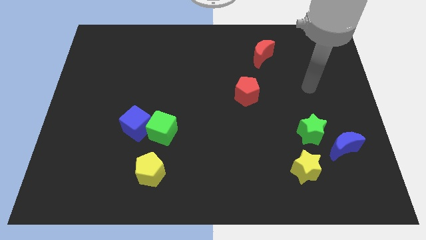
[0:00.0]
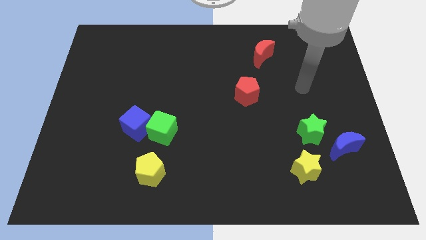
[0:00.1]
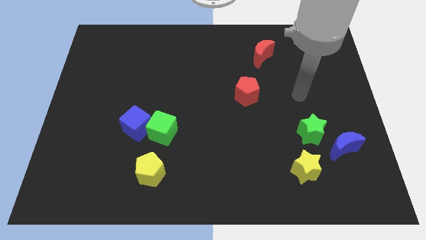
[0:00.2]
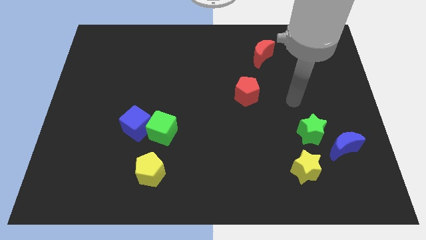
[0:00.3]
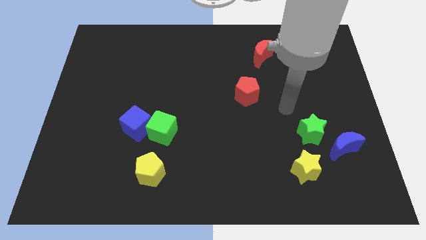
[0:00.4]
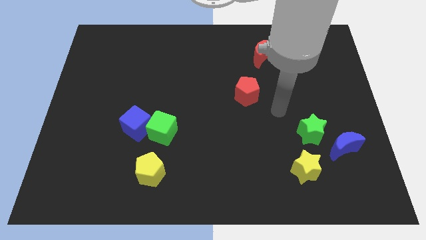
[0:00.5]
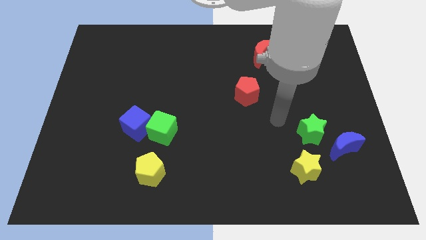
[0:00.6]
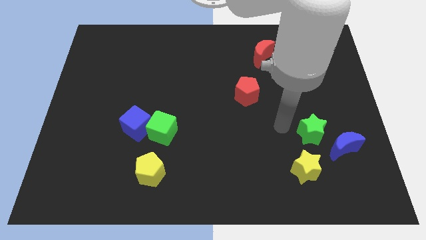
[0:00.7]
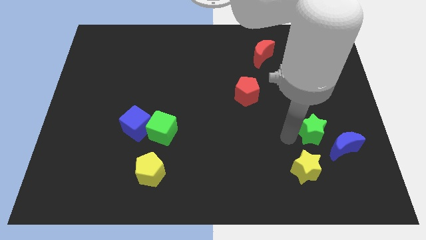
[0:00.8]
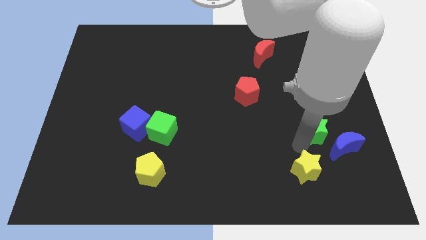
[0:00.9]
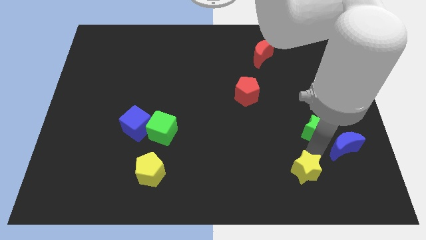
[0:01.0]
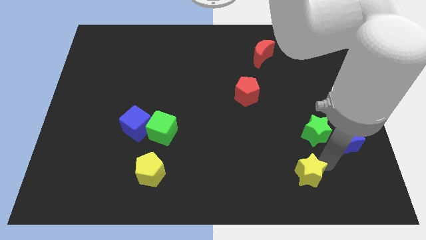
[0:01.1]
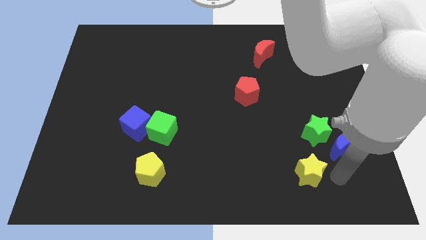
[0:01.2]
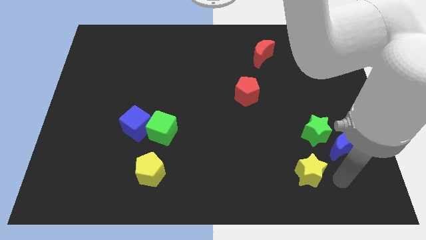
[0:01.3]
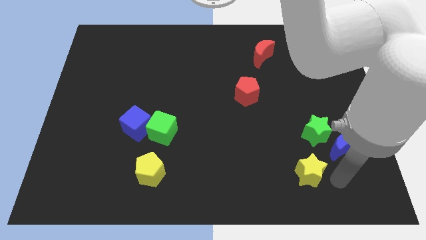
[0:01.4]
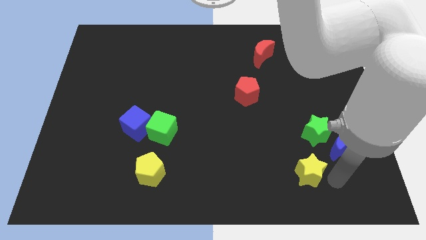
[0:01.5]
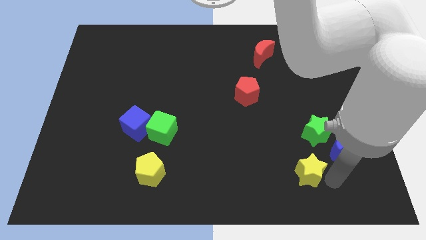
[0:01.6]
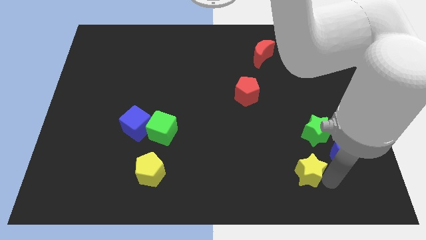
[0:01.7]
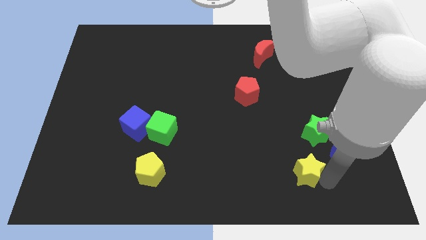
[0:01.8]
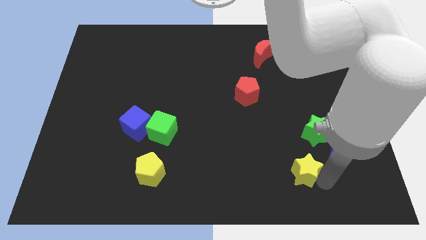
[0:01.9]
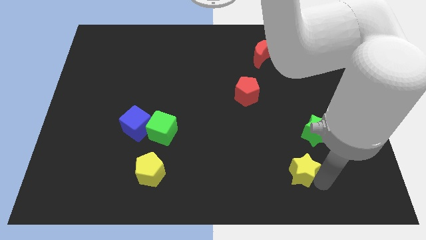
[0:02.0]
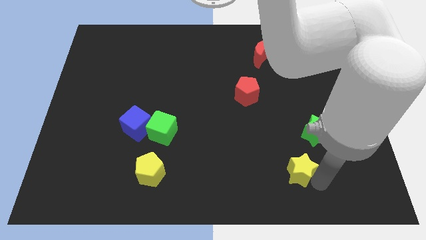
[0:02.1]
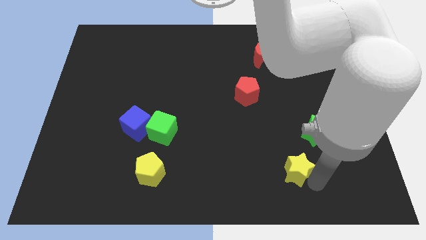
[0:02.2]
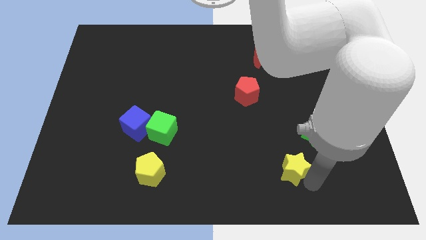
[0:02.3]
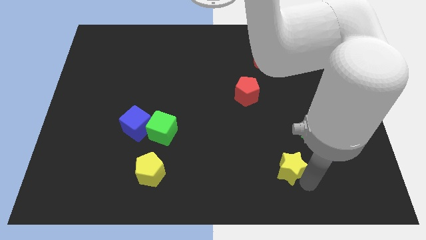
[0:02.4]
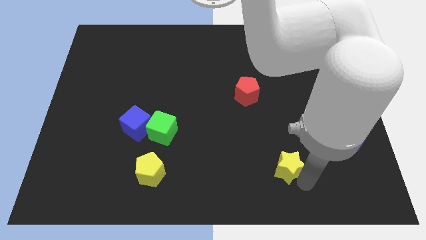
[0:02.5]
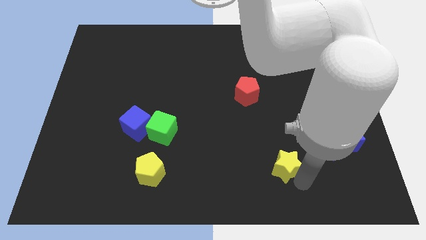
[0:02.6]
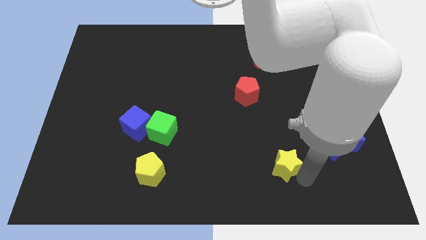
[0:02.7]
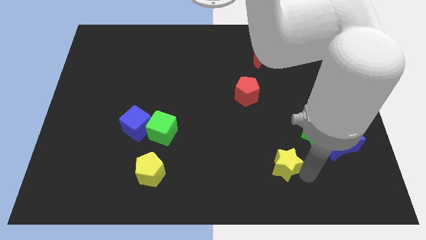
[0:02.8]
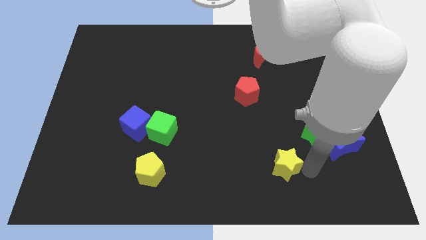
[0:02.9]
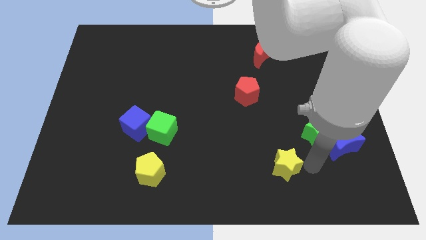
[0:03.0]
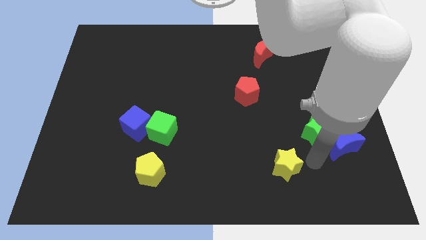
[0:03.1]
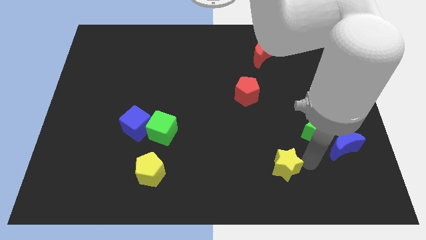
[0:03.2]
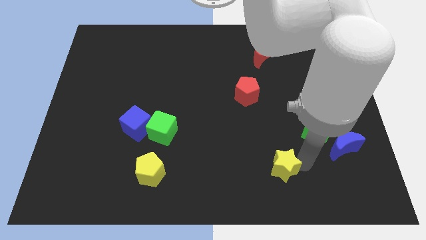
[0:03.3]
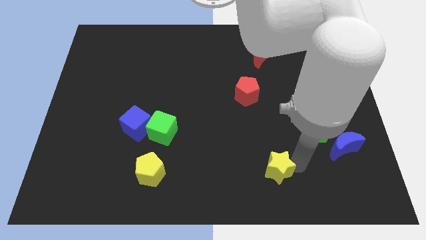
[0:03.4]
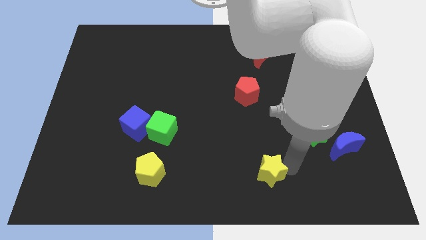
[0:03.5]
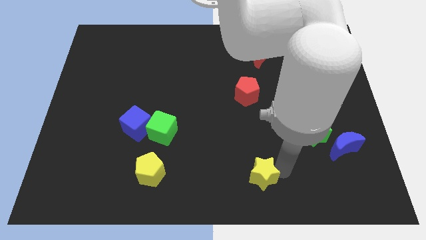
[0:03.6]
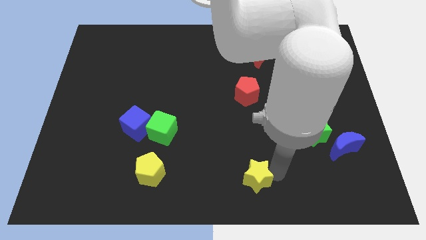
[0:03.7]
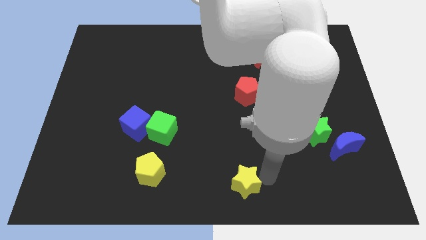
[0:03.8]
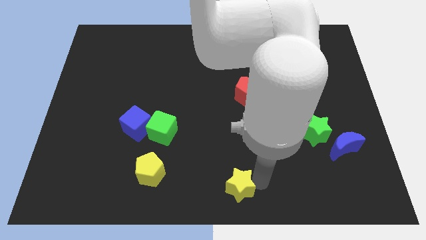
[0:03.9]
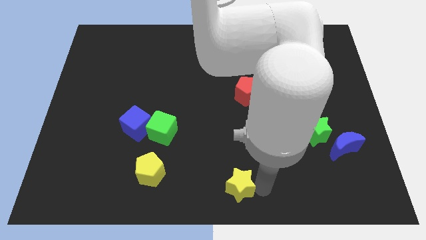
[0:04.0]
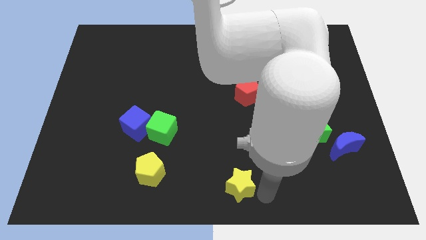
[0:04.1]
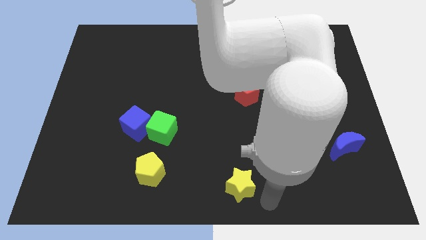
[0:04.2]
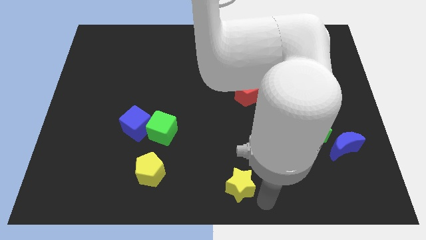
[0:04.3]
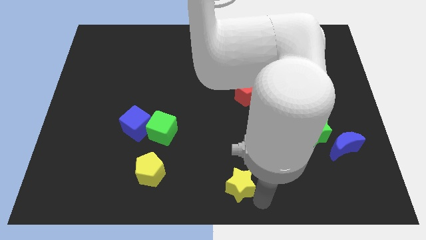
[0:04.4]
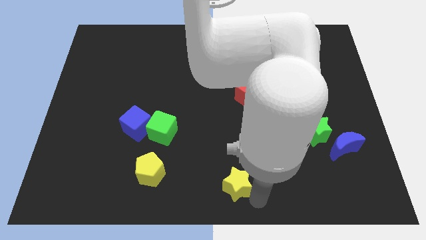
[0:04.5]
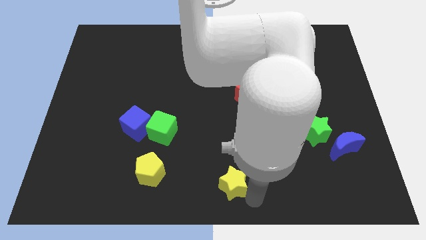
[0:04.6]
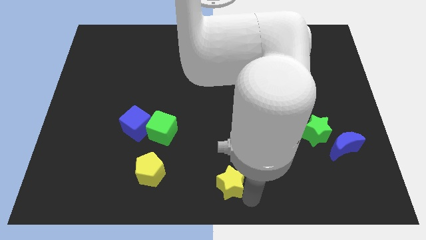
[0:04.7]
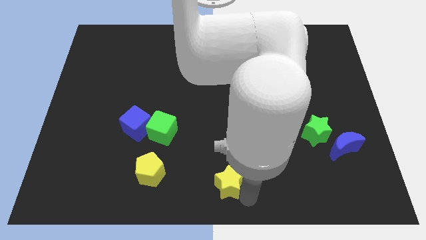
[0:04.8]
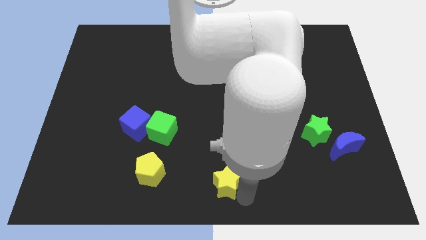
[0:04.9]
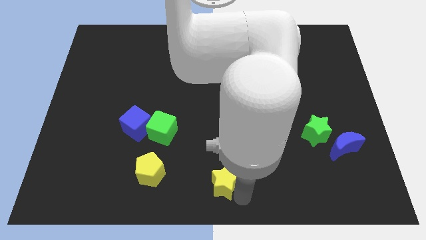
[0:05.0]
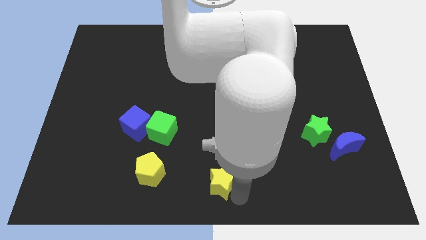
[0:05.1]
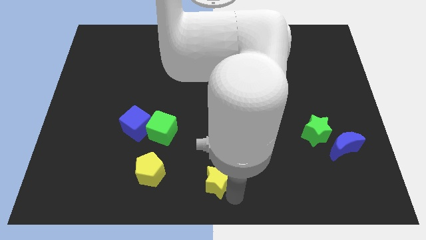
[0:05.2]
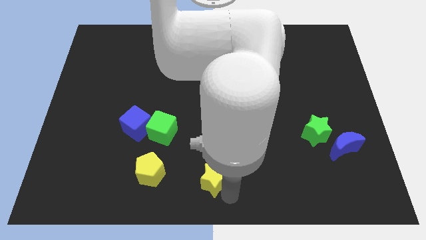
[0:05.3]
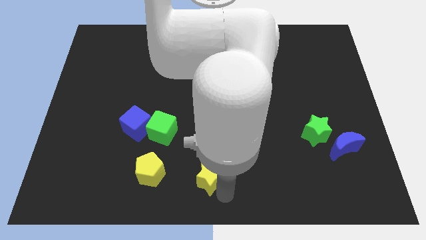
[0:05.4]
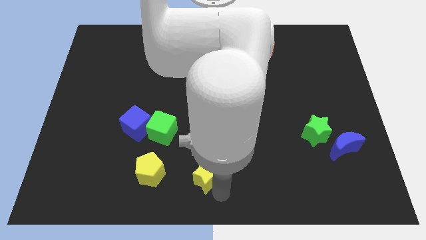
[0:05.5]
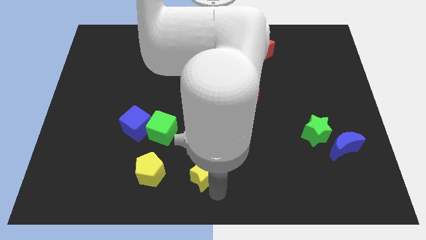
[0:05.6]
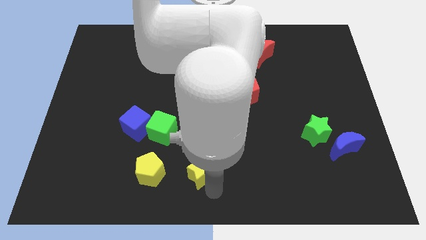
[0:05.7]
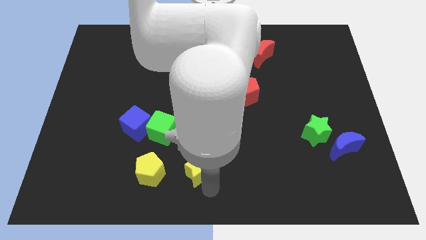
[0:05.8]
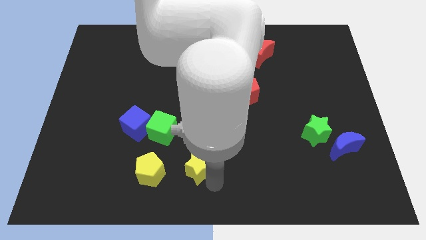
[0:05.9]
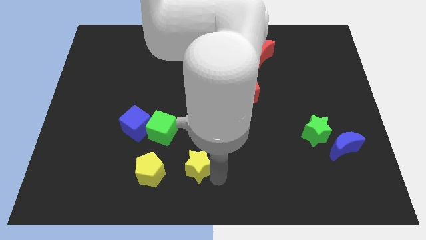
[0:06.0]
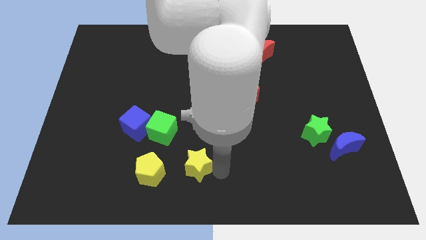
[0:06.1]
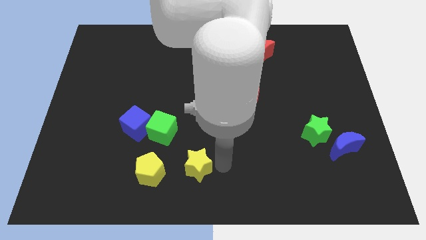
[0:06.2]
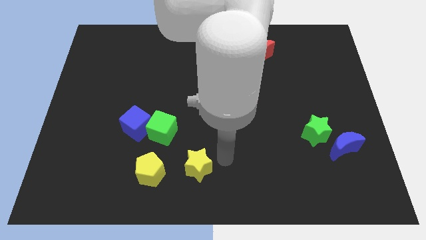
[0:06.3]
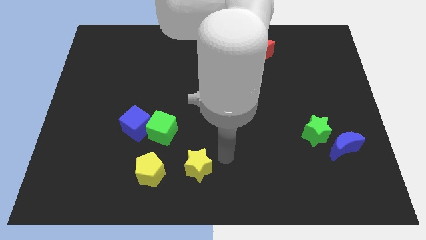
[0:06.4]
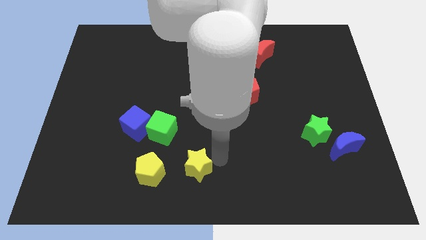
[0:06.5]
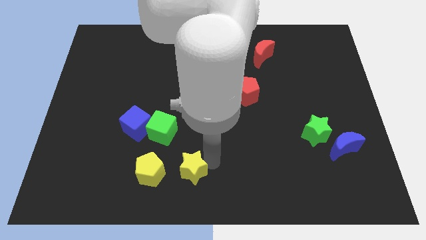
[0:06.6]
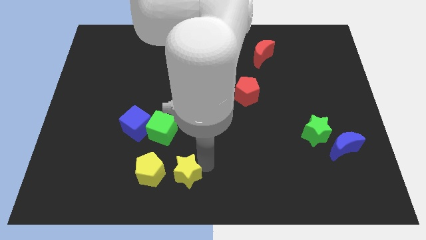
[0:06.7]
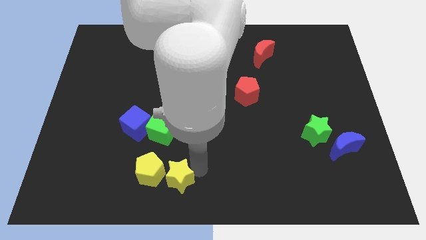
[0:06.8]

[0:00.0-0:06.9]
push the yellow star close to the yellow pentagon

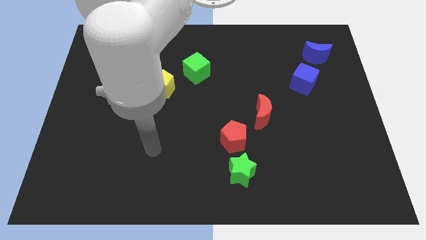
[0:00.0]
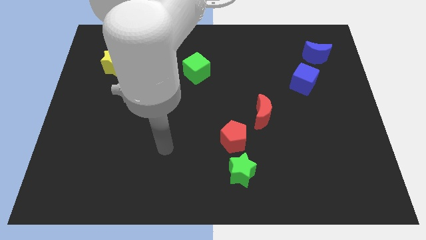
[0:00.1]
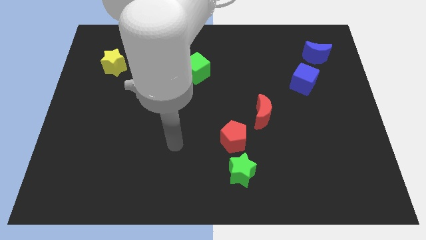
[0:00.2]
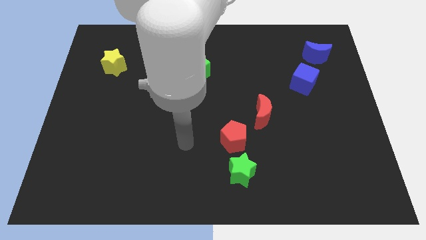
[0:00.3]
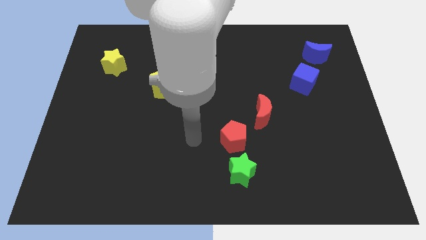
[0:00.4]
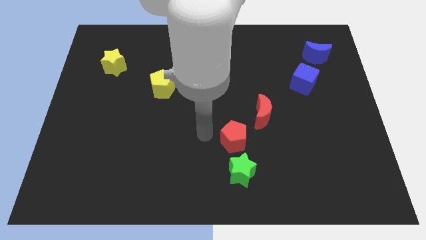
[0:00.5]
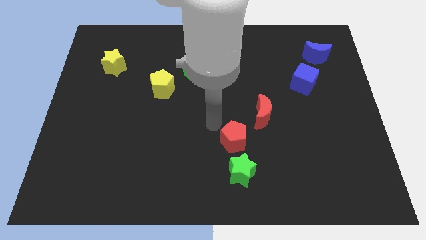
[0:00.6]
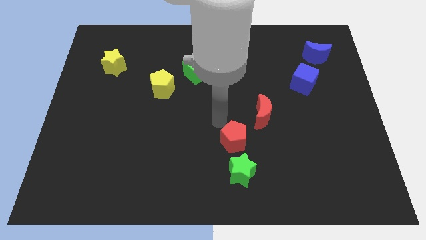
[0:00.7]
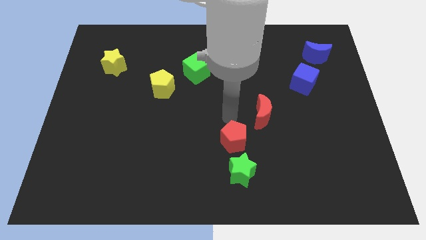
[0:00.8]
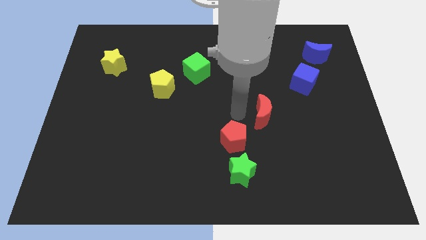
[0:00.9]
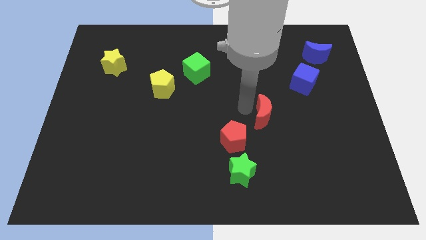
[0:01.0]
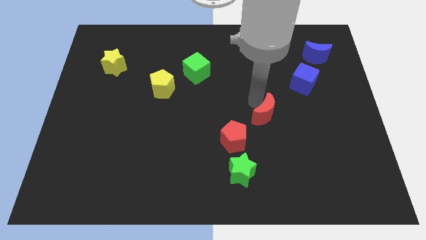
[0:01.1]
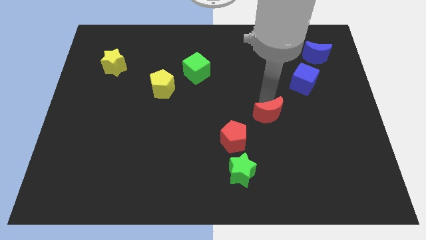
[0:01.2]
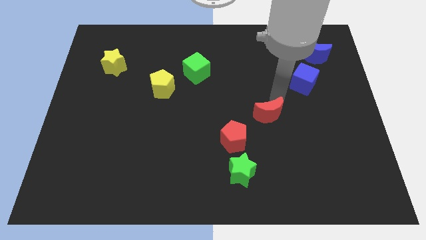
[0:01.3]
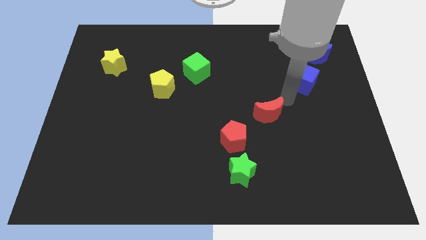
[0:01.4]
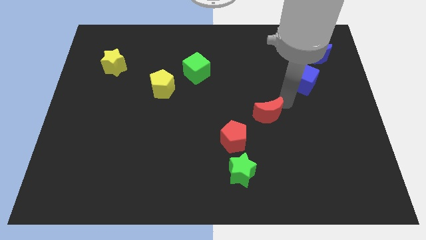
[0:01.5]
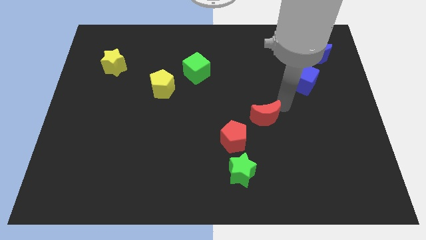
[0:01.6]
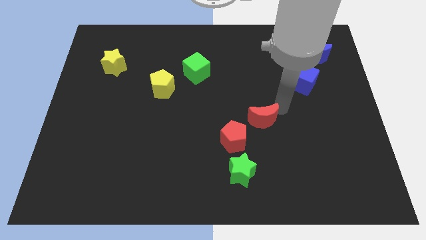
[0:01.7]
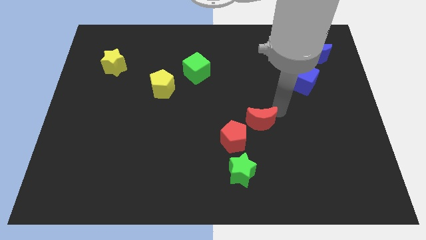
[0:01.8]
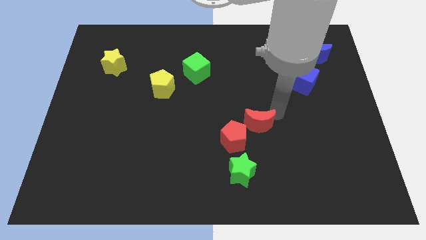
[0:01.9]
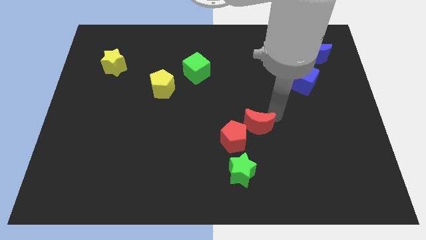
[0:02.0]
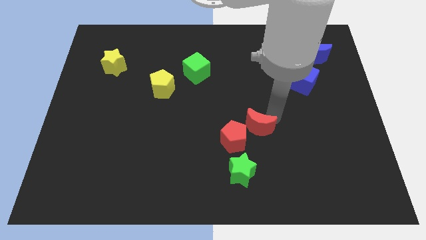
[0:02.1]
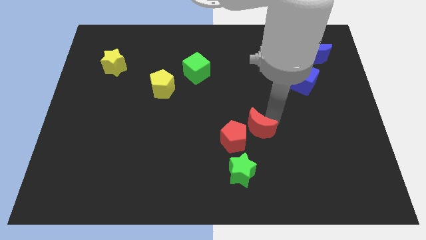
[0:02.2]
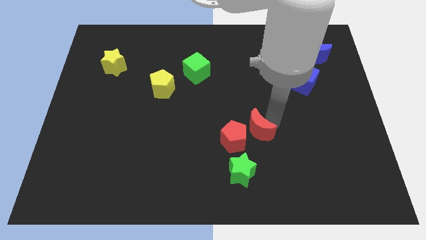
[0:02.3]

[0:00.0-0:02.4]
move the red moon to the red pentagon
